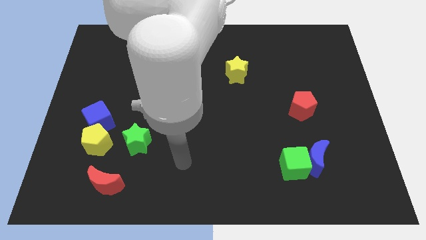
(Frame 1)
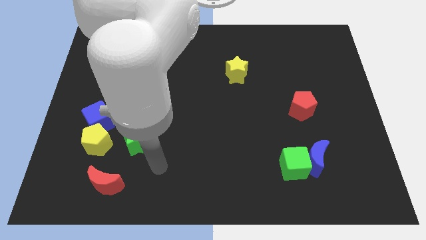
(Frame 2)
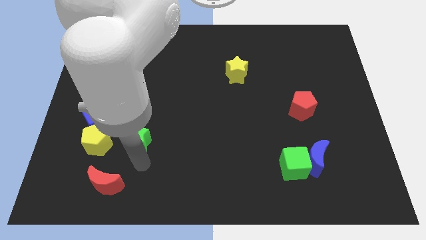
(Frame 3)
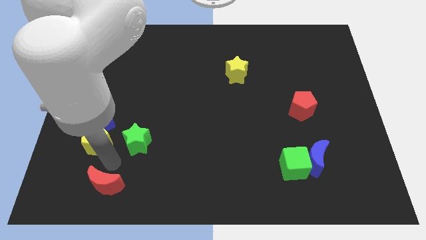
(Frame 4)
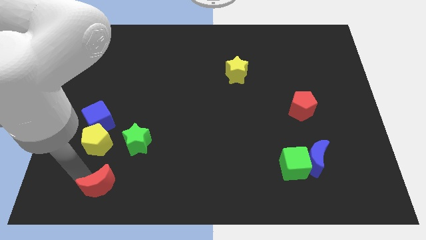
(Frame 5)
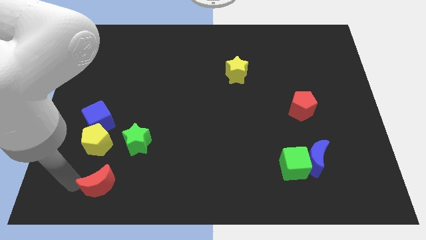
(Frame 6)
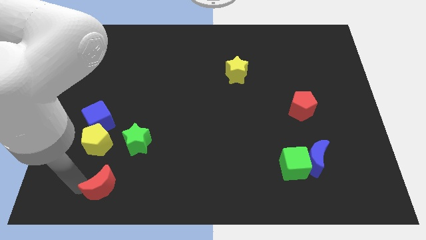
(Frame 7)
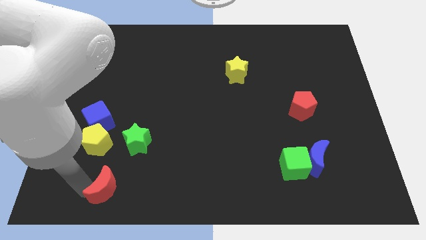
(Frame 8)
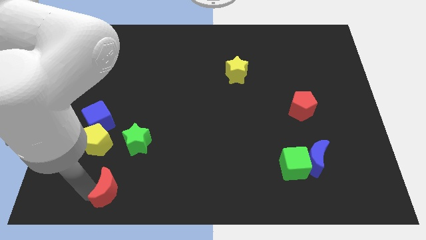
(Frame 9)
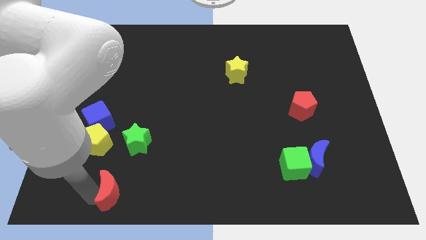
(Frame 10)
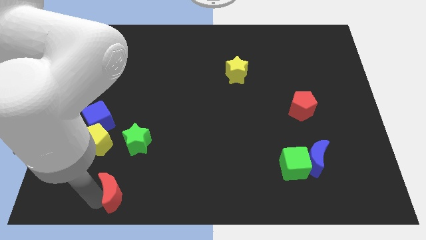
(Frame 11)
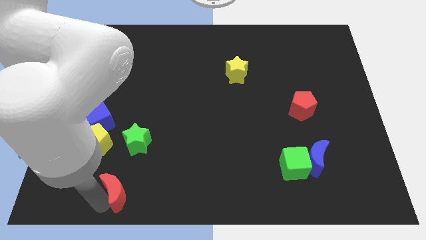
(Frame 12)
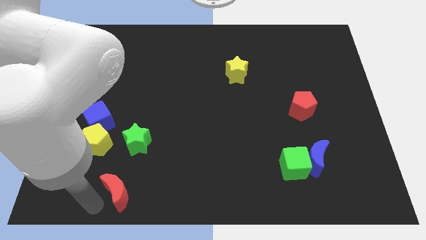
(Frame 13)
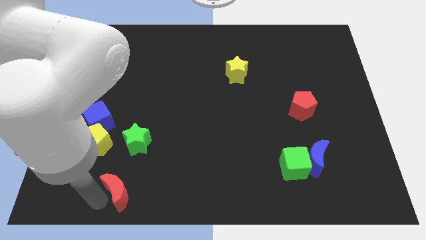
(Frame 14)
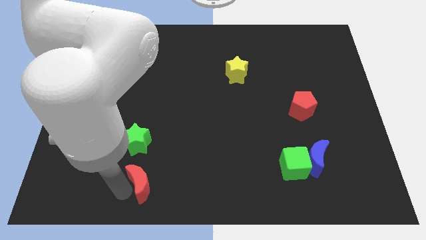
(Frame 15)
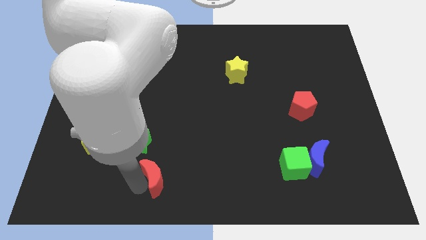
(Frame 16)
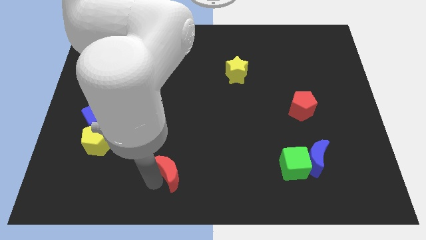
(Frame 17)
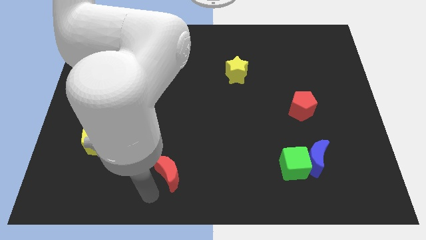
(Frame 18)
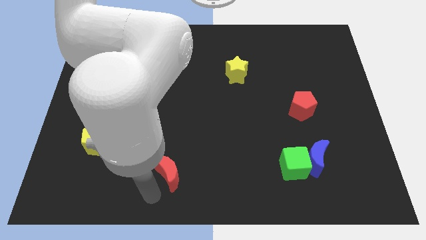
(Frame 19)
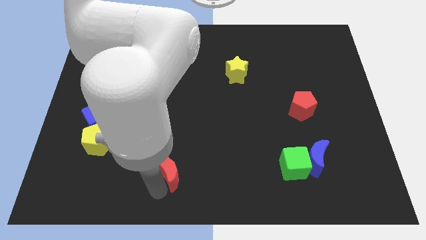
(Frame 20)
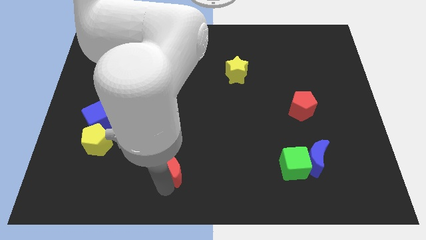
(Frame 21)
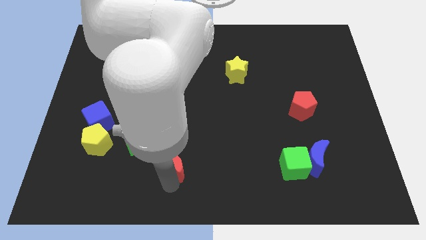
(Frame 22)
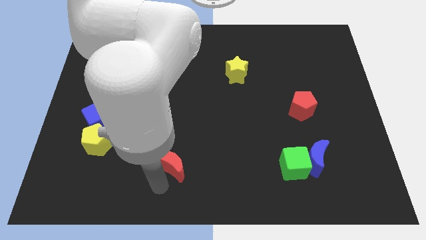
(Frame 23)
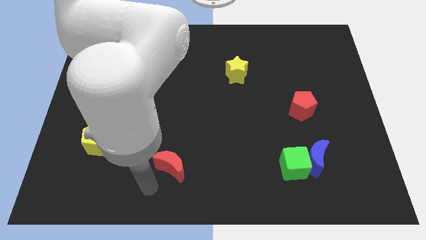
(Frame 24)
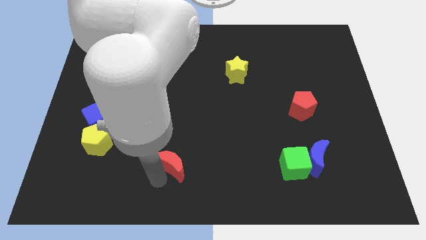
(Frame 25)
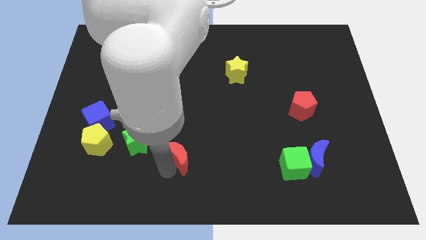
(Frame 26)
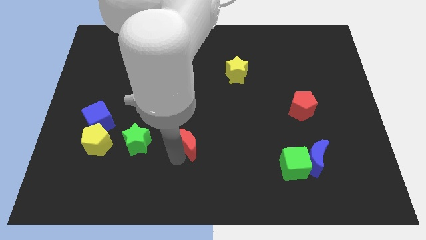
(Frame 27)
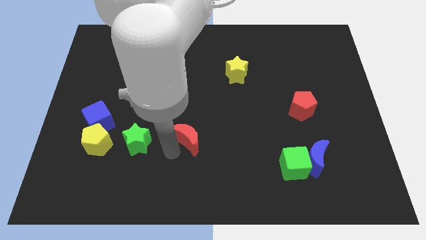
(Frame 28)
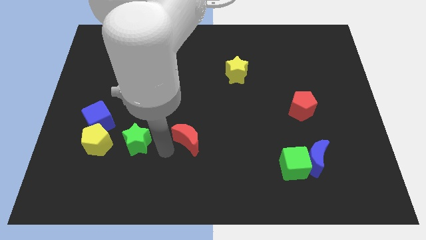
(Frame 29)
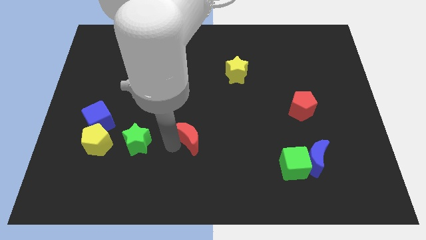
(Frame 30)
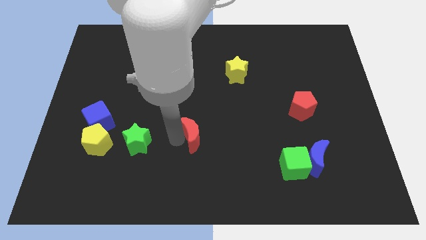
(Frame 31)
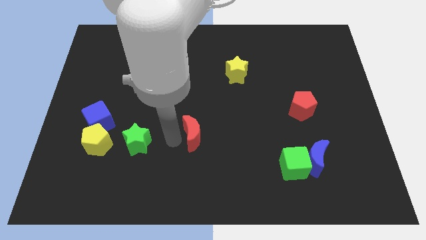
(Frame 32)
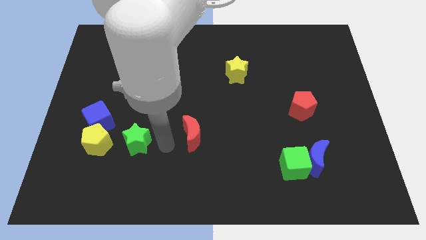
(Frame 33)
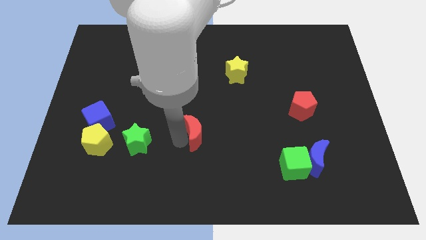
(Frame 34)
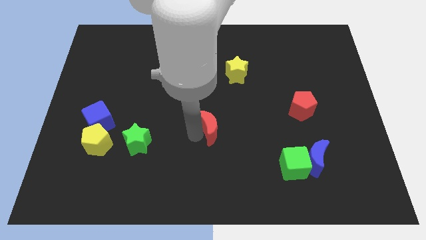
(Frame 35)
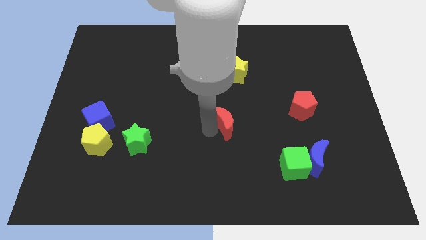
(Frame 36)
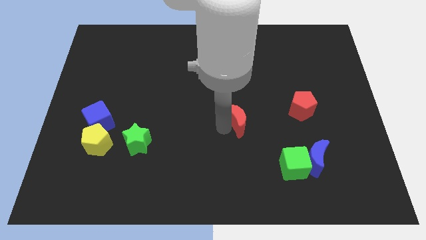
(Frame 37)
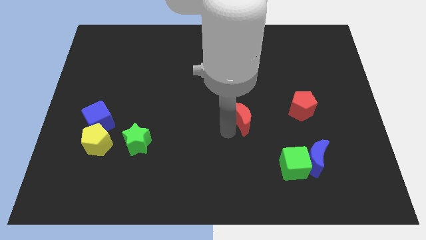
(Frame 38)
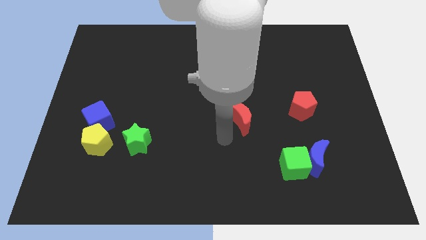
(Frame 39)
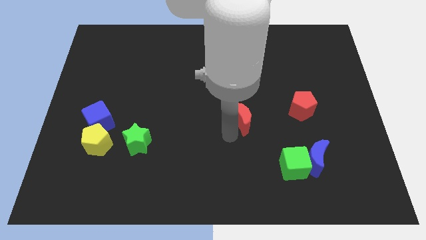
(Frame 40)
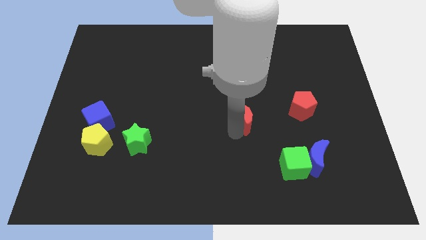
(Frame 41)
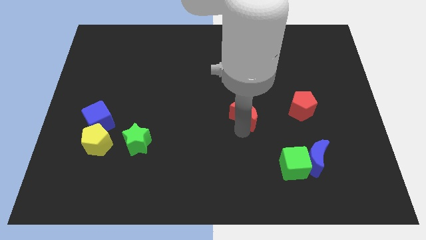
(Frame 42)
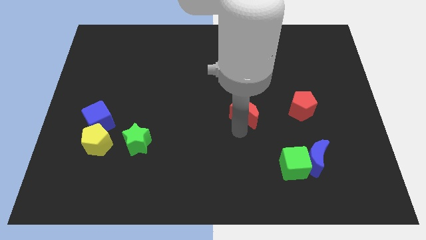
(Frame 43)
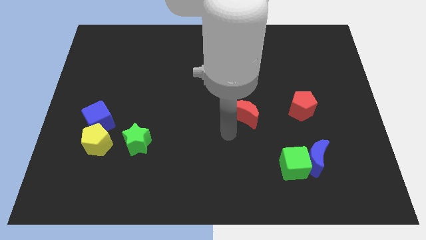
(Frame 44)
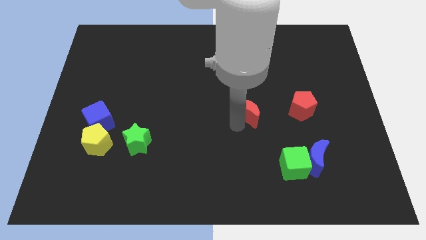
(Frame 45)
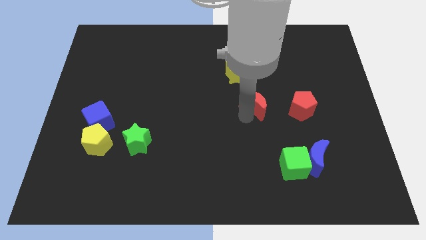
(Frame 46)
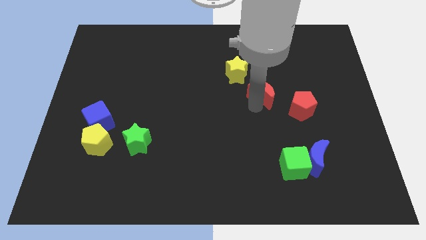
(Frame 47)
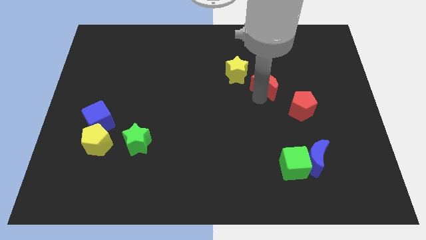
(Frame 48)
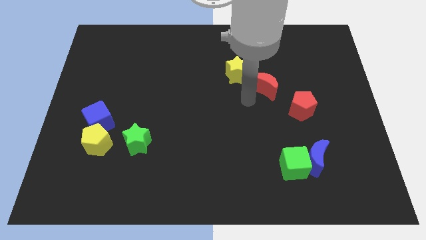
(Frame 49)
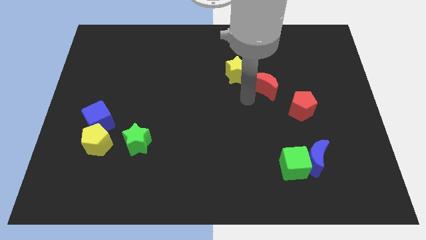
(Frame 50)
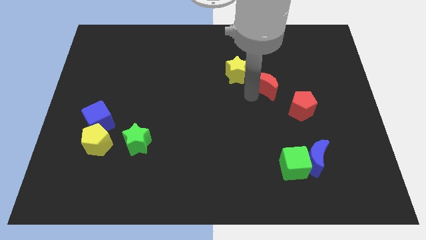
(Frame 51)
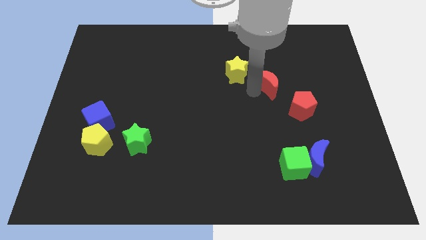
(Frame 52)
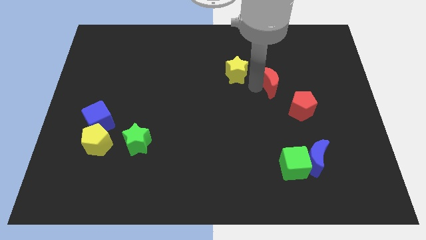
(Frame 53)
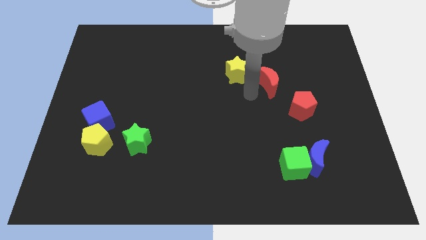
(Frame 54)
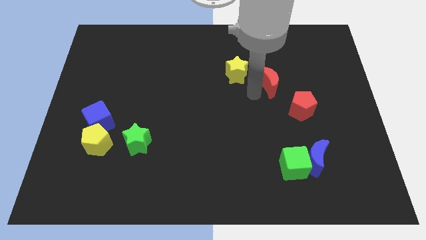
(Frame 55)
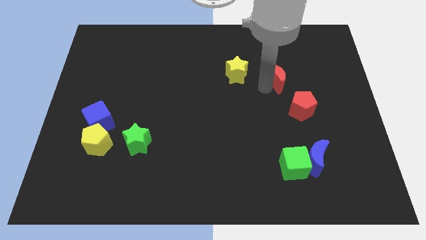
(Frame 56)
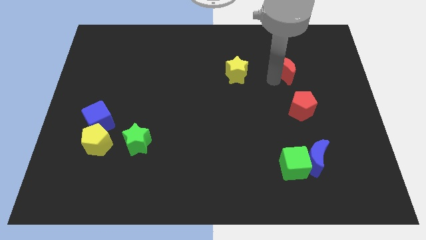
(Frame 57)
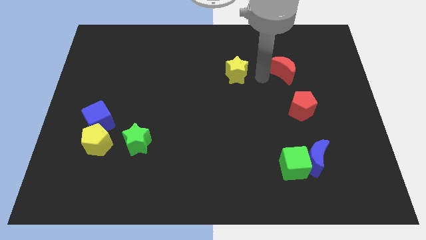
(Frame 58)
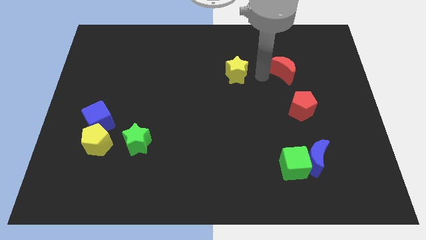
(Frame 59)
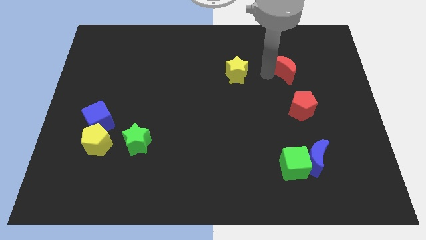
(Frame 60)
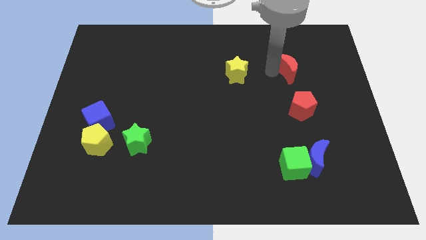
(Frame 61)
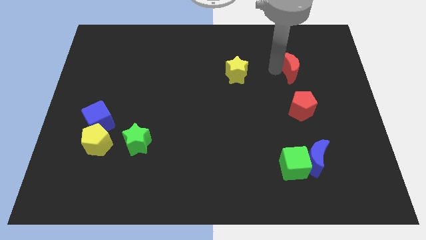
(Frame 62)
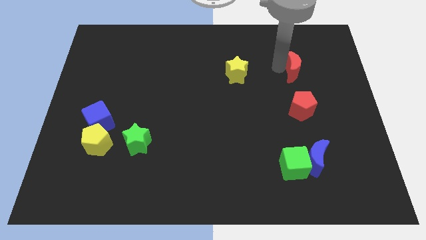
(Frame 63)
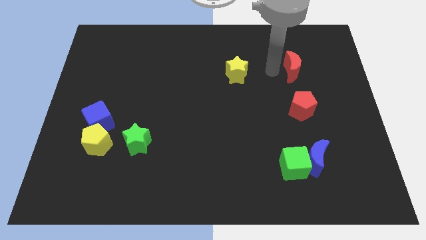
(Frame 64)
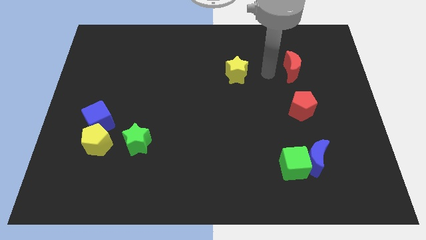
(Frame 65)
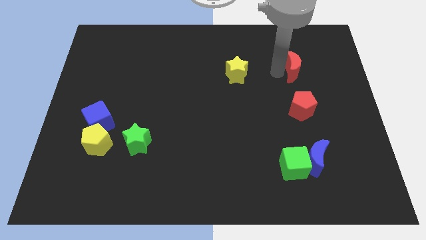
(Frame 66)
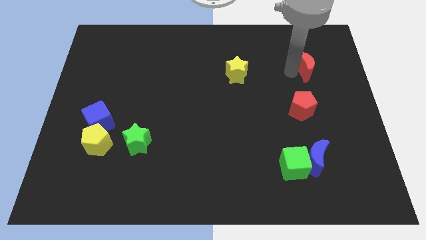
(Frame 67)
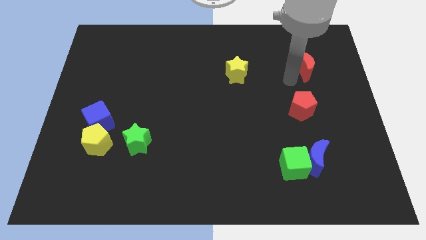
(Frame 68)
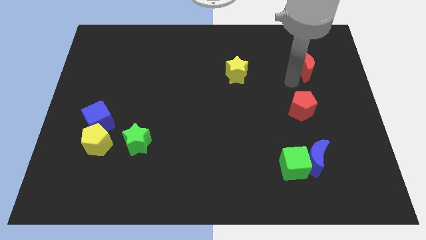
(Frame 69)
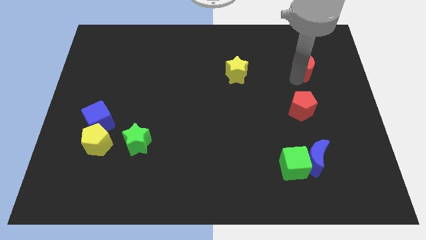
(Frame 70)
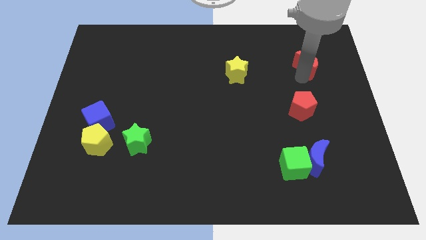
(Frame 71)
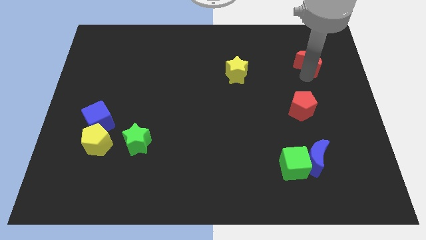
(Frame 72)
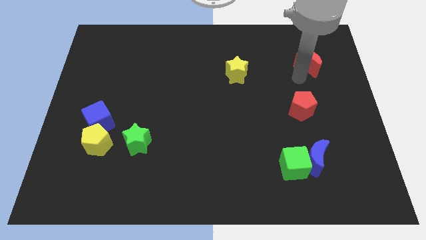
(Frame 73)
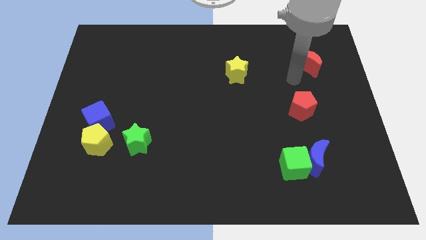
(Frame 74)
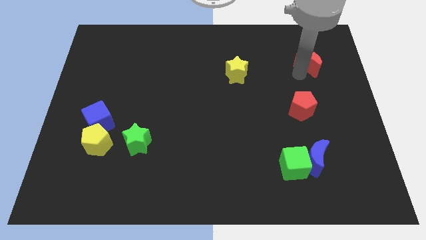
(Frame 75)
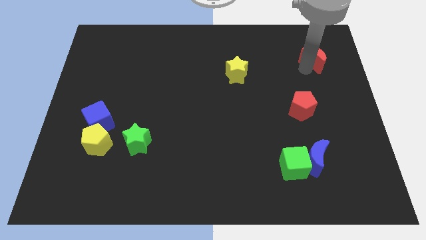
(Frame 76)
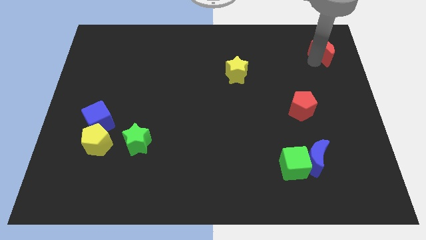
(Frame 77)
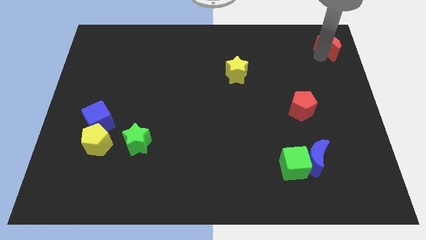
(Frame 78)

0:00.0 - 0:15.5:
push the red moon to the top right corner

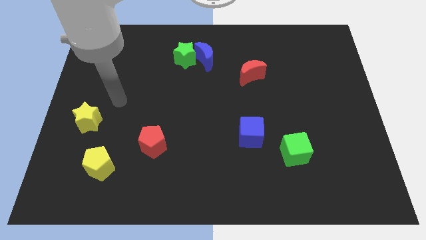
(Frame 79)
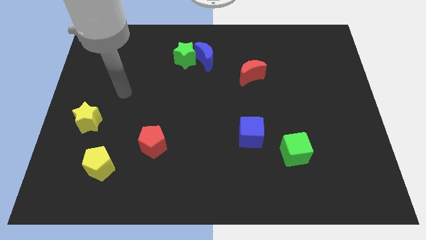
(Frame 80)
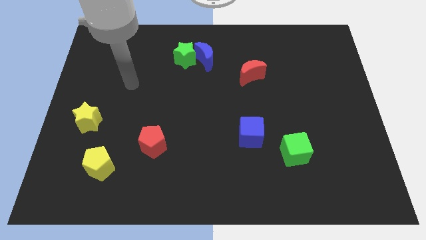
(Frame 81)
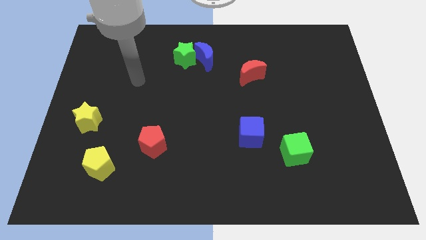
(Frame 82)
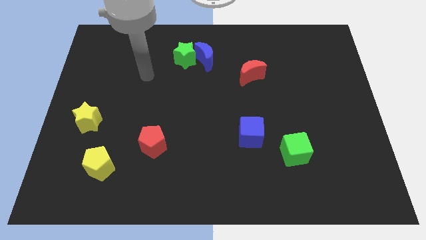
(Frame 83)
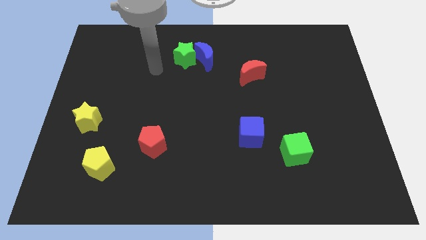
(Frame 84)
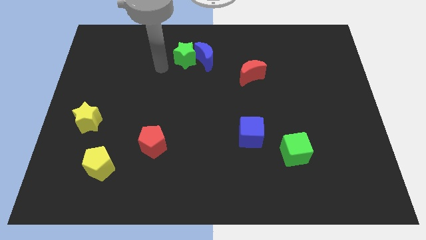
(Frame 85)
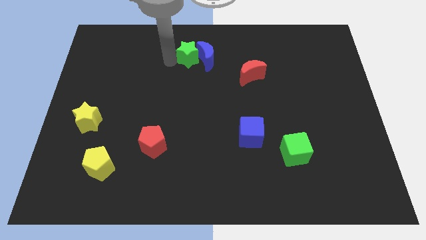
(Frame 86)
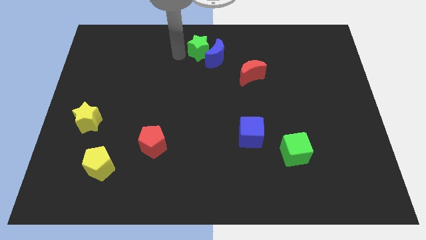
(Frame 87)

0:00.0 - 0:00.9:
push the blue moon to the towards your base
